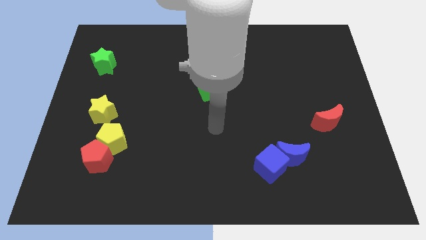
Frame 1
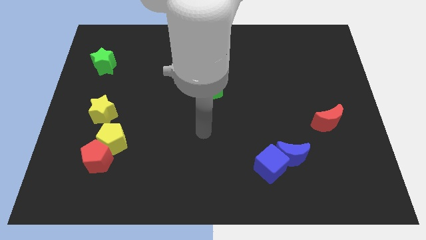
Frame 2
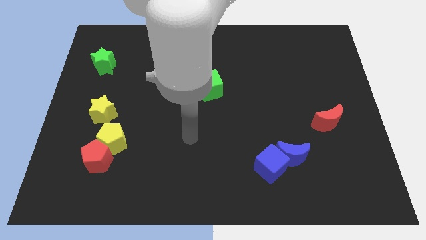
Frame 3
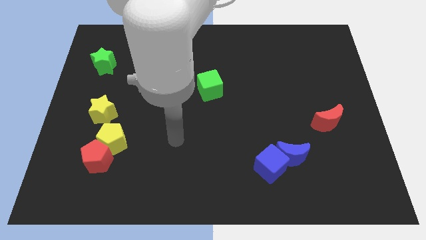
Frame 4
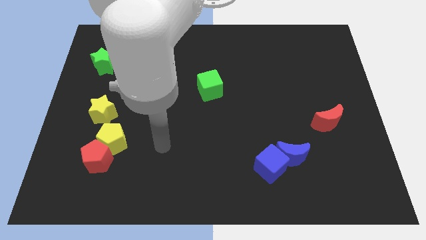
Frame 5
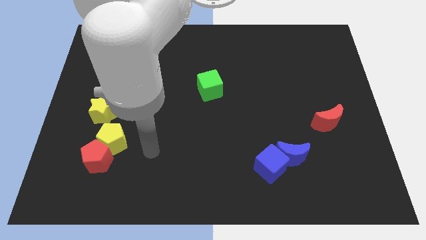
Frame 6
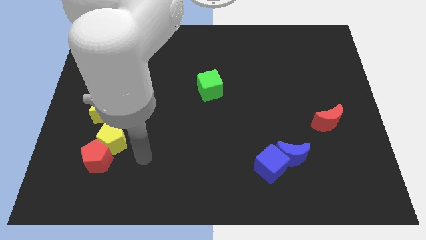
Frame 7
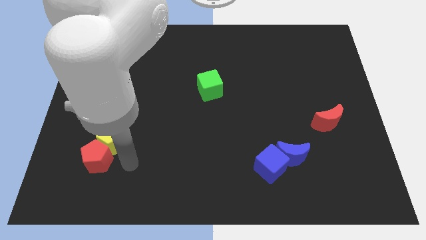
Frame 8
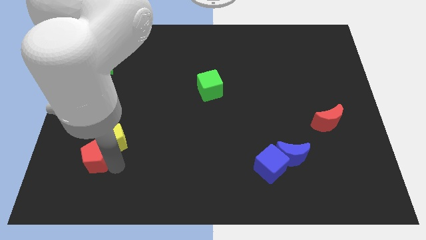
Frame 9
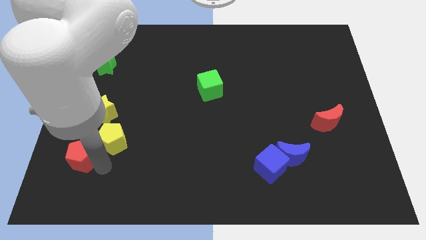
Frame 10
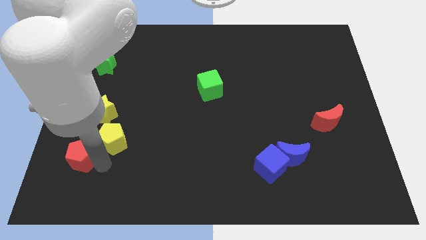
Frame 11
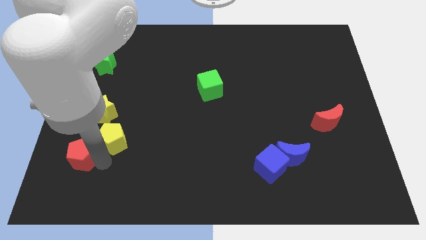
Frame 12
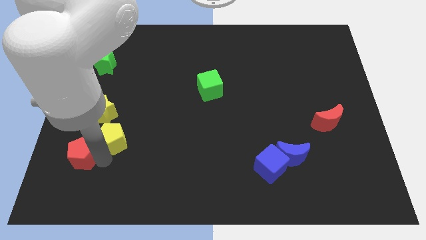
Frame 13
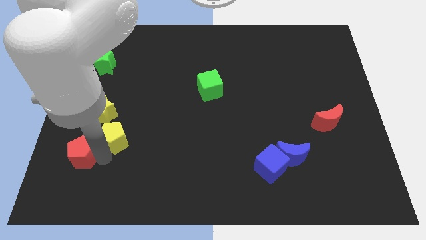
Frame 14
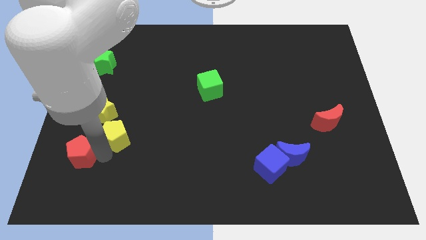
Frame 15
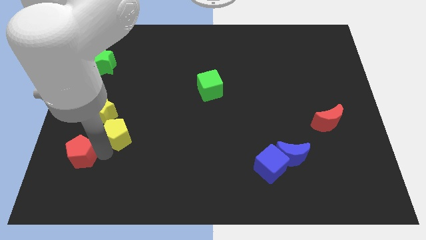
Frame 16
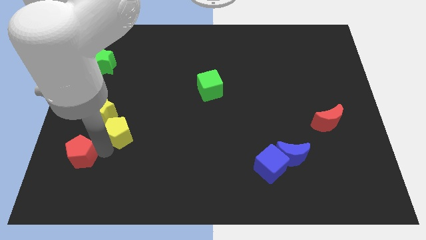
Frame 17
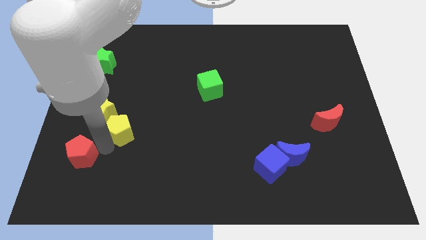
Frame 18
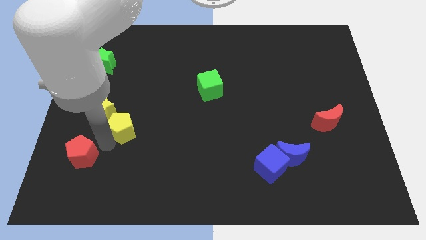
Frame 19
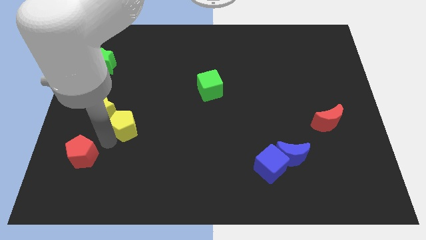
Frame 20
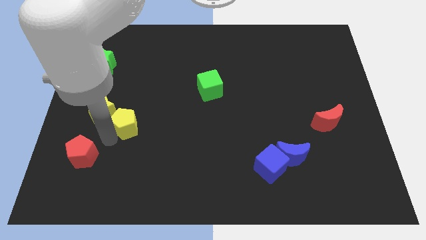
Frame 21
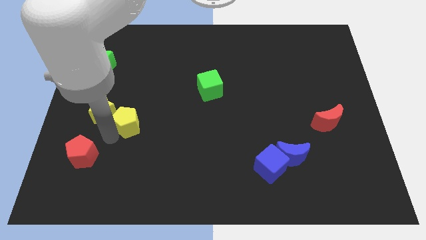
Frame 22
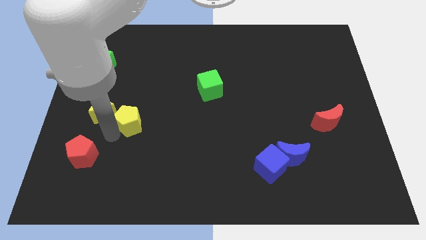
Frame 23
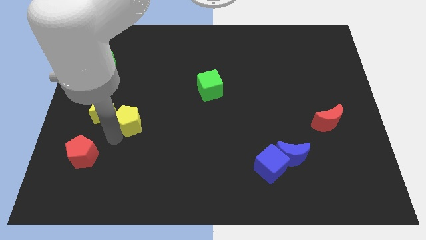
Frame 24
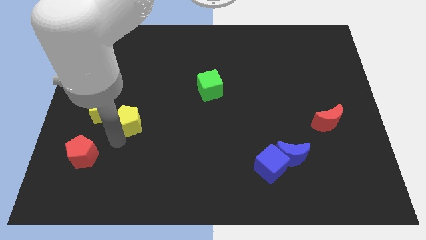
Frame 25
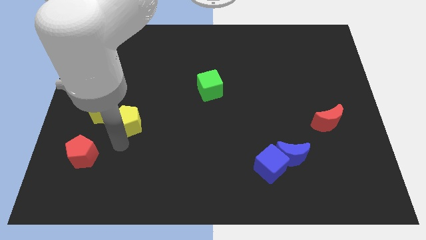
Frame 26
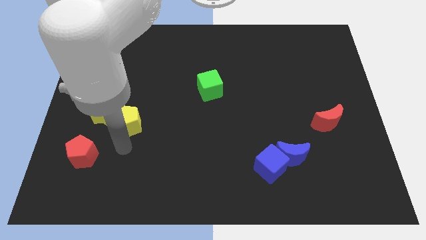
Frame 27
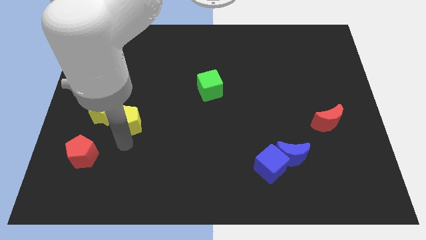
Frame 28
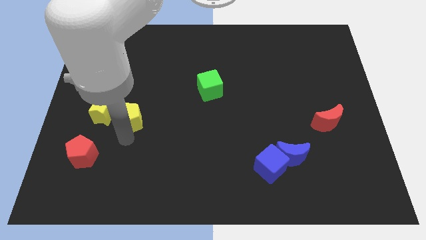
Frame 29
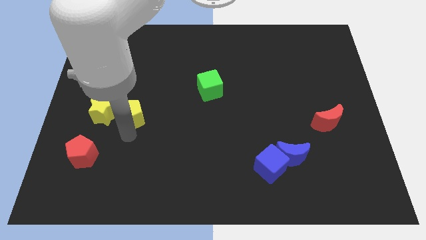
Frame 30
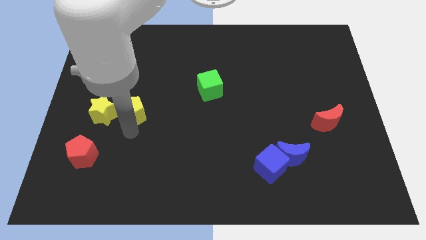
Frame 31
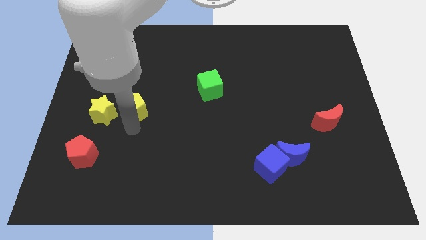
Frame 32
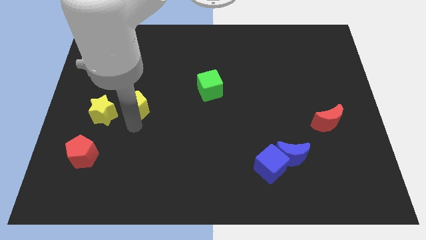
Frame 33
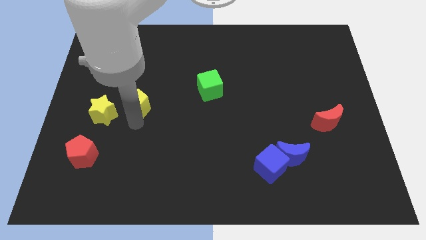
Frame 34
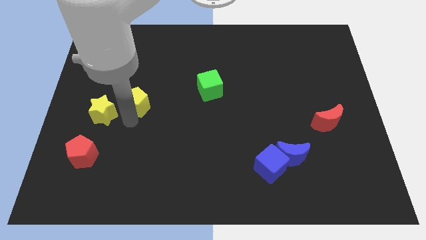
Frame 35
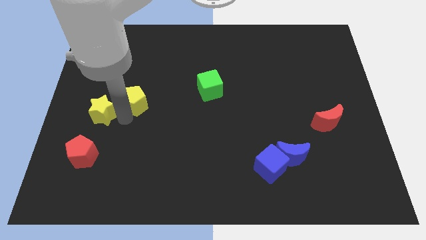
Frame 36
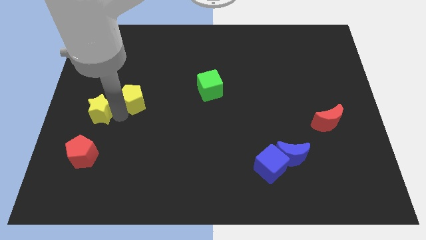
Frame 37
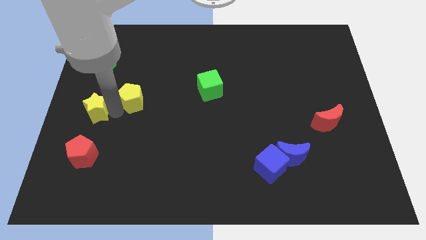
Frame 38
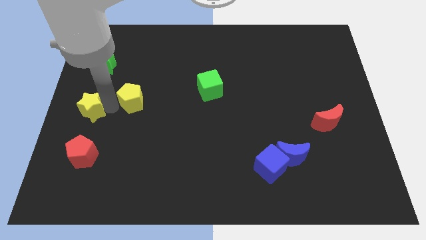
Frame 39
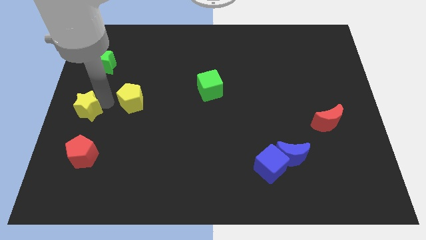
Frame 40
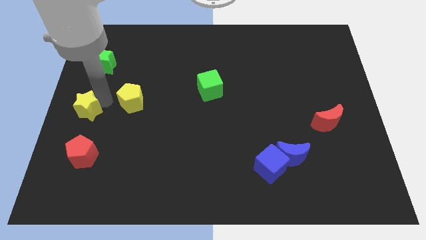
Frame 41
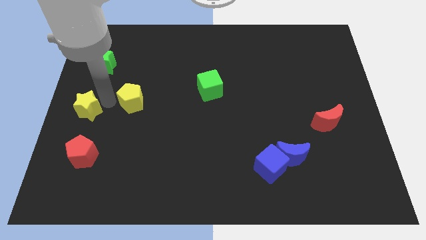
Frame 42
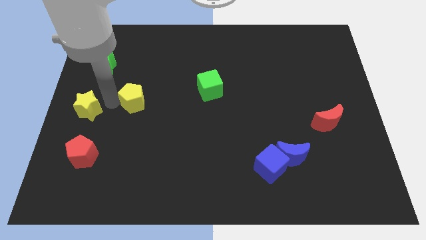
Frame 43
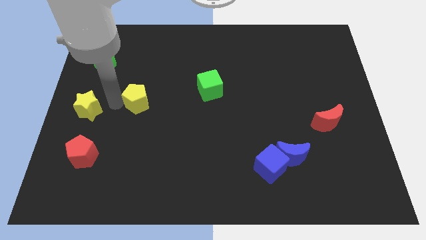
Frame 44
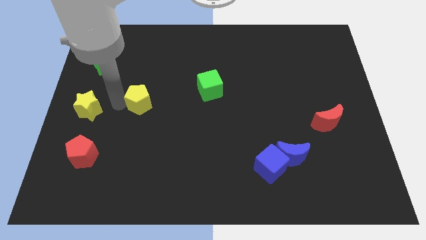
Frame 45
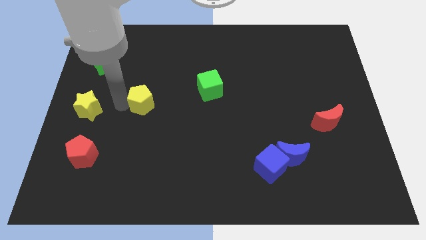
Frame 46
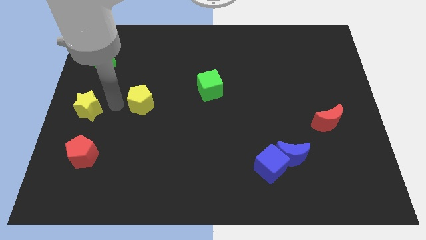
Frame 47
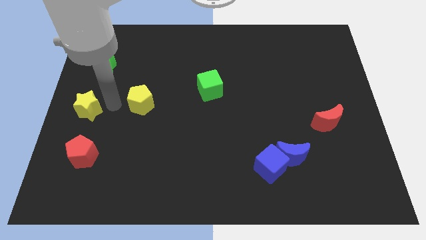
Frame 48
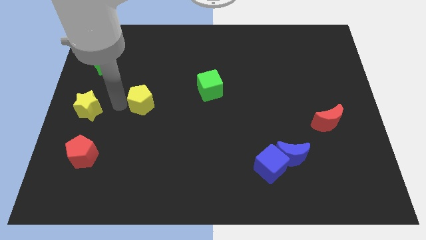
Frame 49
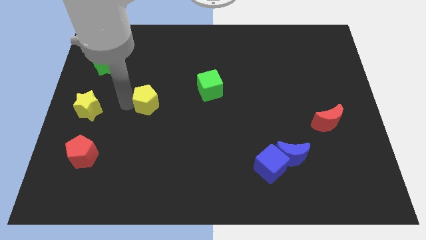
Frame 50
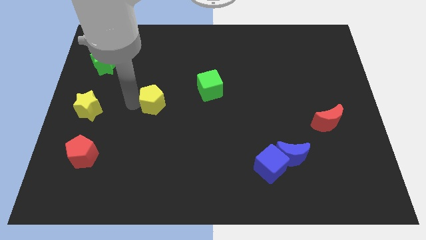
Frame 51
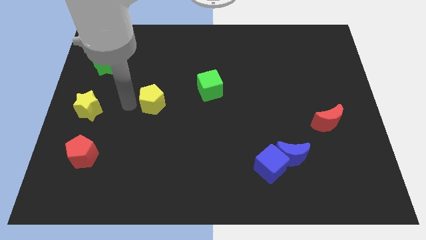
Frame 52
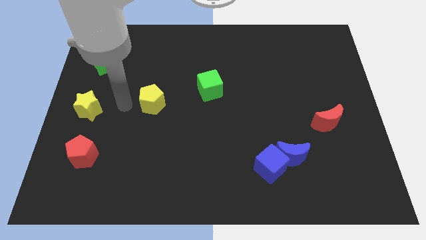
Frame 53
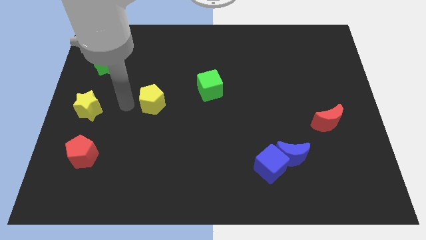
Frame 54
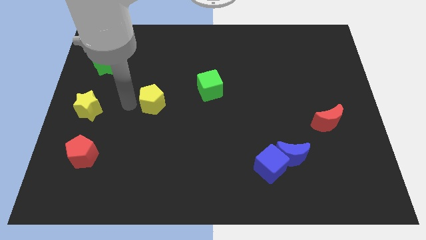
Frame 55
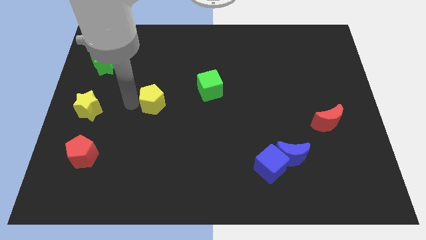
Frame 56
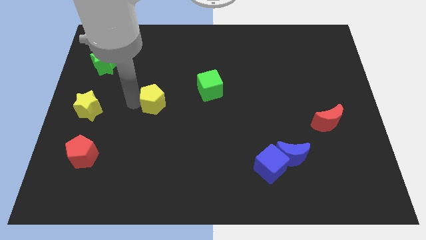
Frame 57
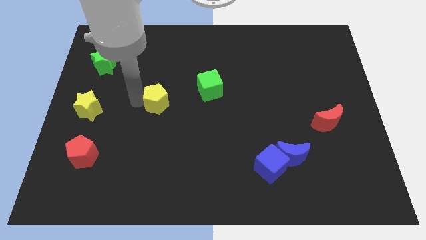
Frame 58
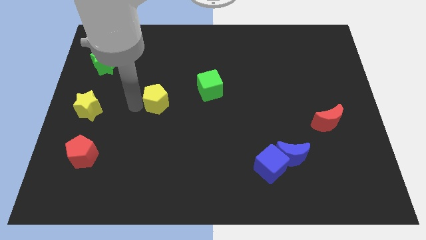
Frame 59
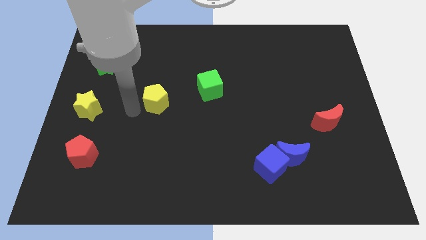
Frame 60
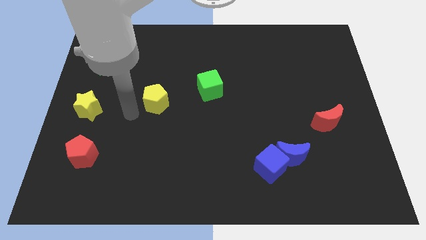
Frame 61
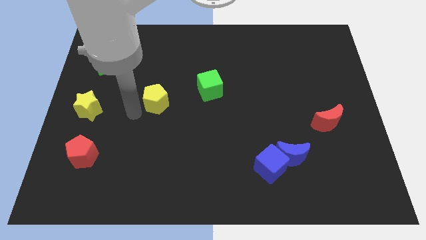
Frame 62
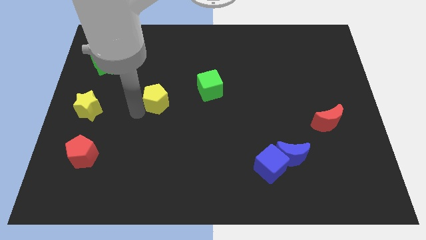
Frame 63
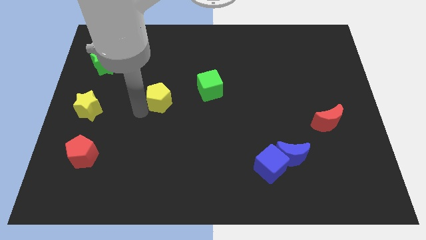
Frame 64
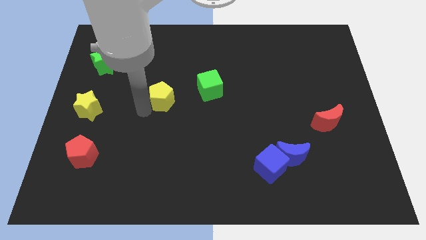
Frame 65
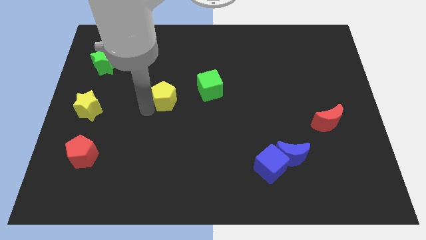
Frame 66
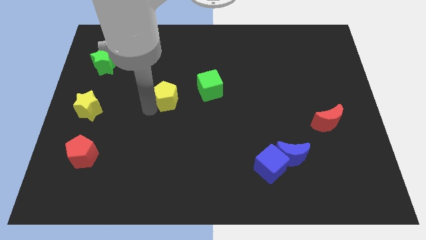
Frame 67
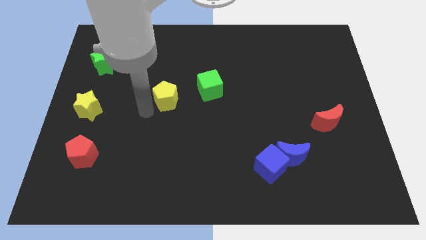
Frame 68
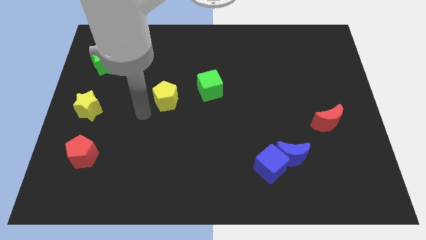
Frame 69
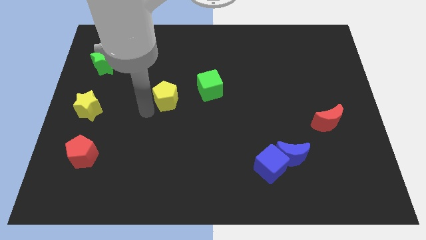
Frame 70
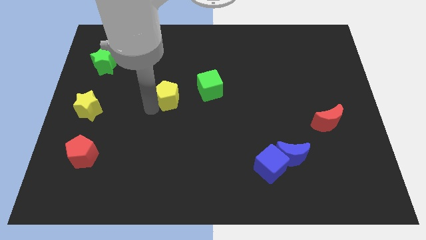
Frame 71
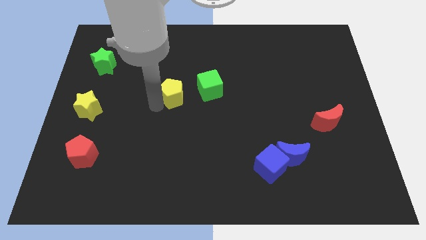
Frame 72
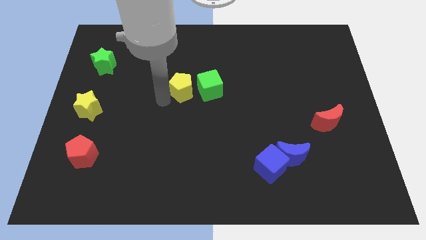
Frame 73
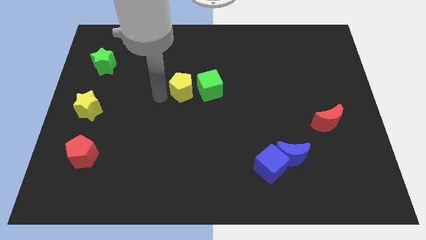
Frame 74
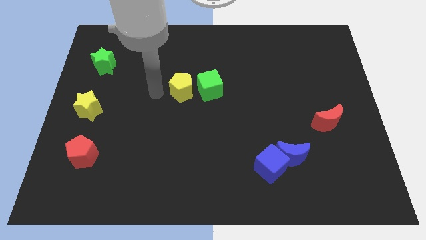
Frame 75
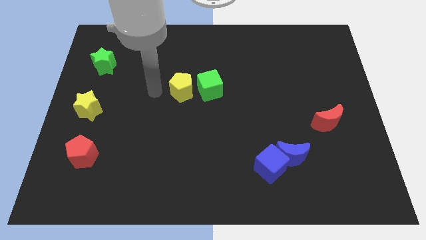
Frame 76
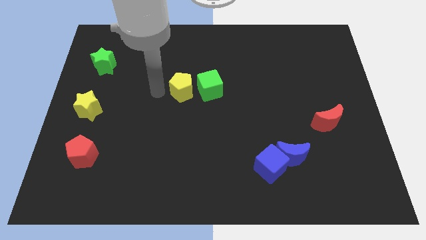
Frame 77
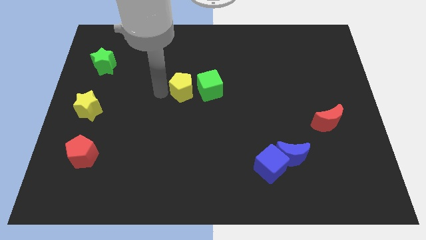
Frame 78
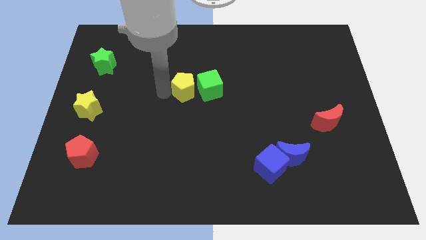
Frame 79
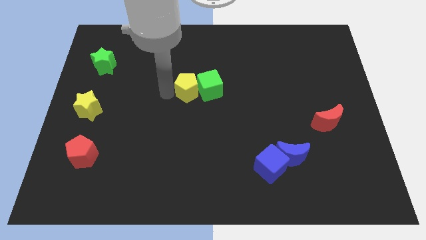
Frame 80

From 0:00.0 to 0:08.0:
move the yellow pentagon close to the green cube
